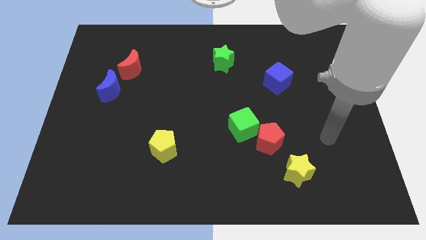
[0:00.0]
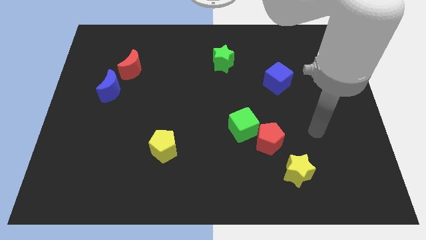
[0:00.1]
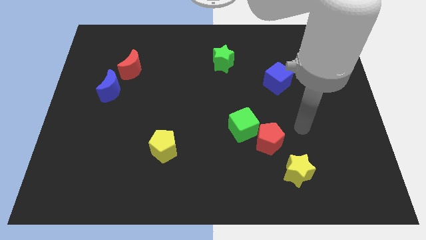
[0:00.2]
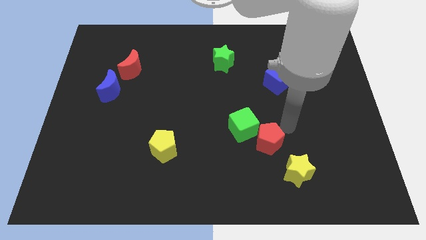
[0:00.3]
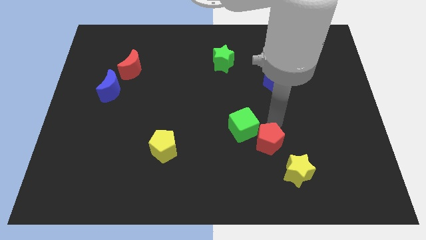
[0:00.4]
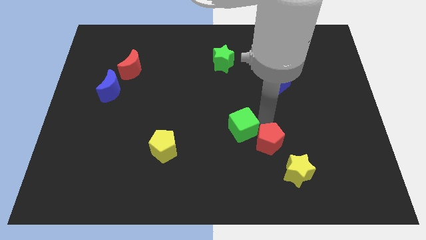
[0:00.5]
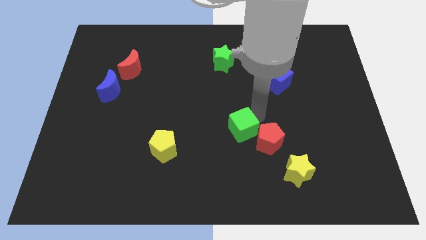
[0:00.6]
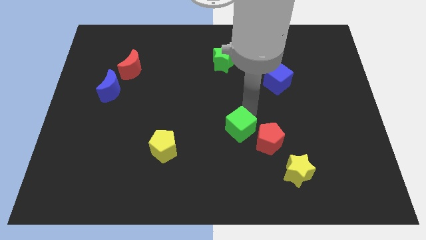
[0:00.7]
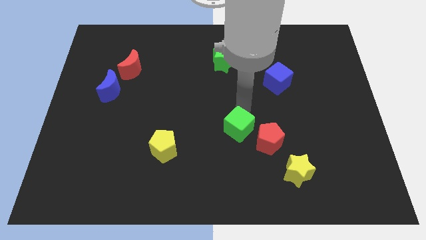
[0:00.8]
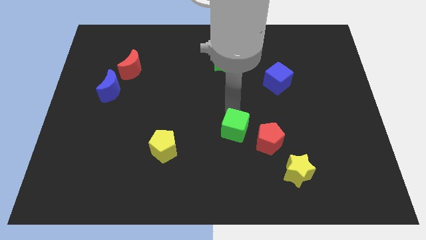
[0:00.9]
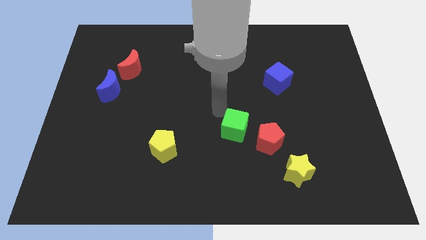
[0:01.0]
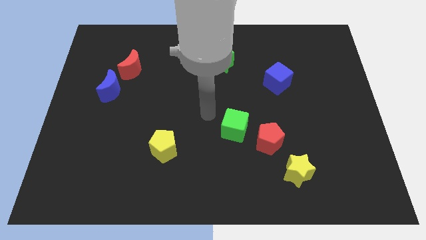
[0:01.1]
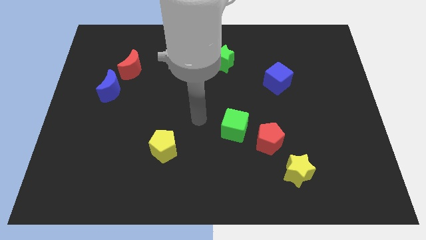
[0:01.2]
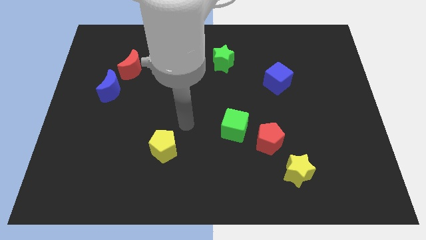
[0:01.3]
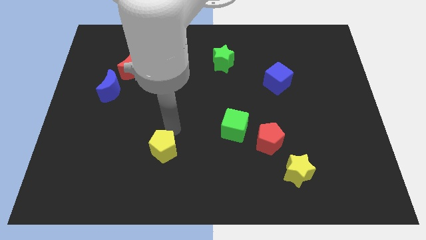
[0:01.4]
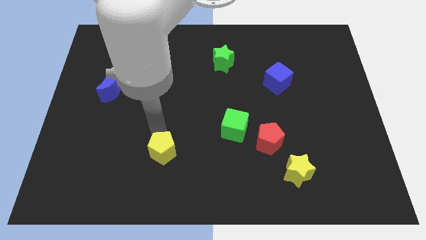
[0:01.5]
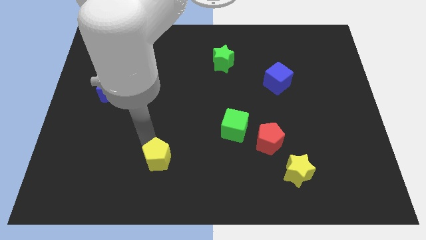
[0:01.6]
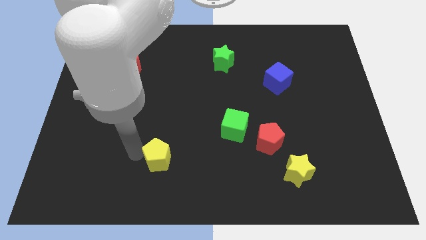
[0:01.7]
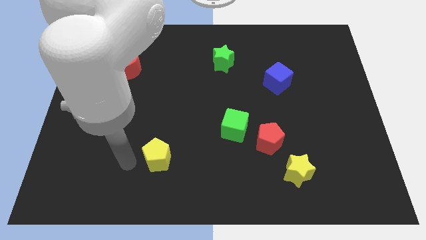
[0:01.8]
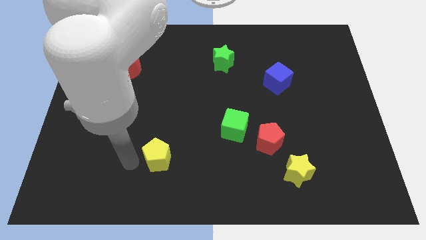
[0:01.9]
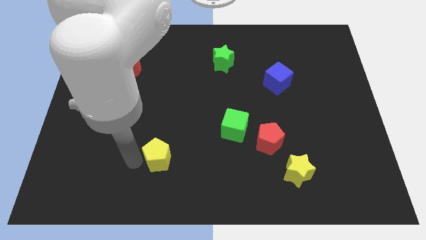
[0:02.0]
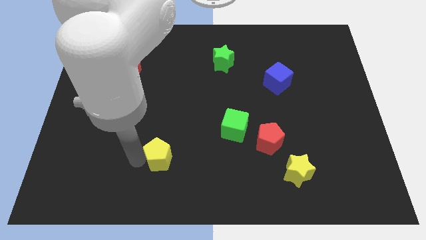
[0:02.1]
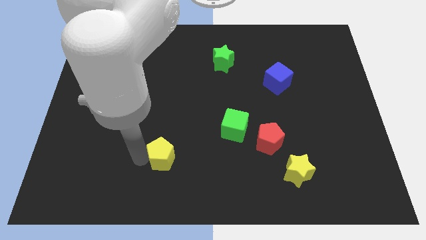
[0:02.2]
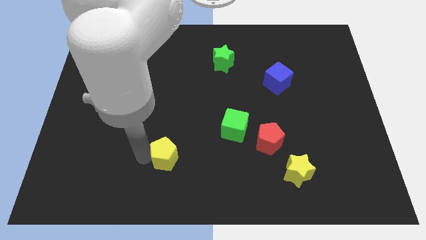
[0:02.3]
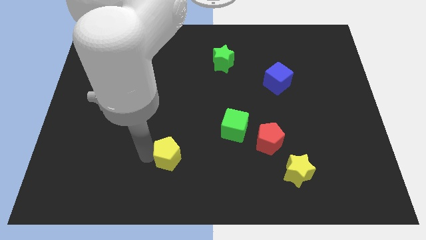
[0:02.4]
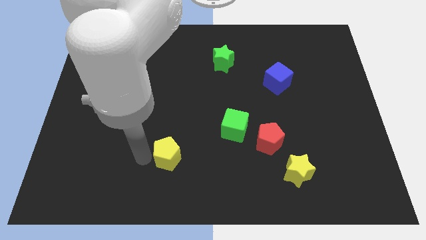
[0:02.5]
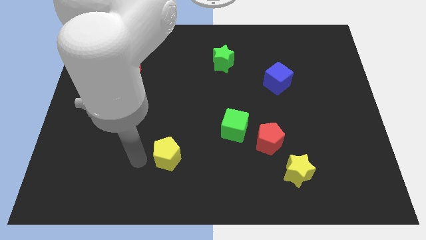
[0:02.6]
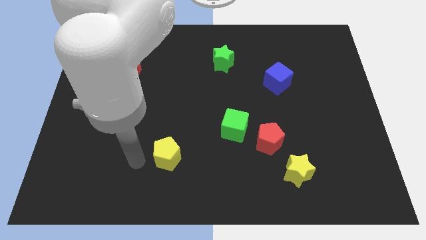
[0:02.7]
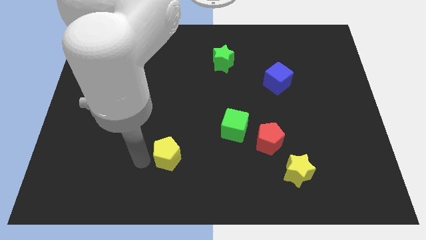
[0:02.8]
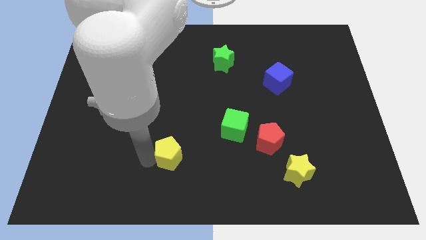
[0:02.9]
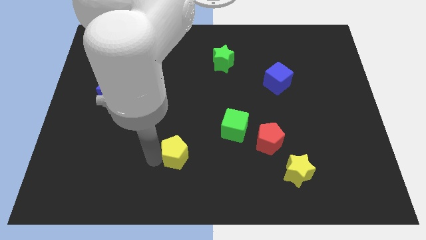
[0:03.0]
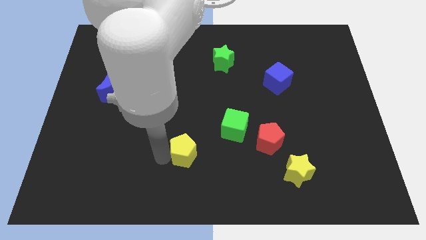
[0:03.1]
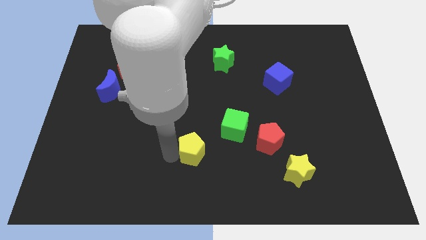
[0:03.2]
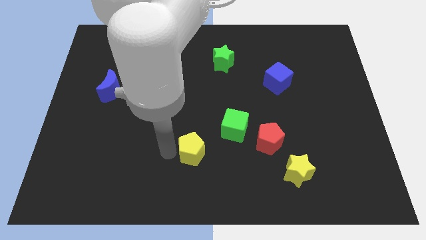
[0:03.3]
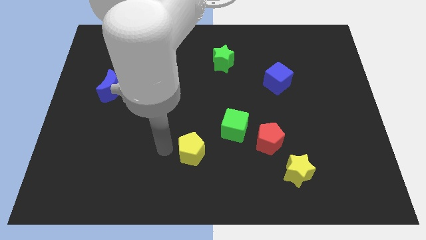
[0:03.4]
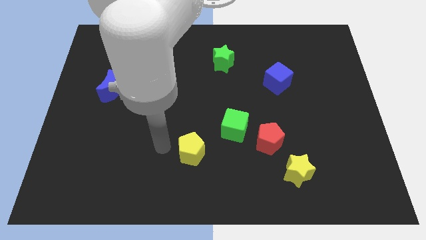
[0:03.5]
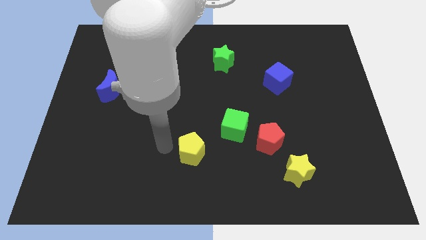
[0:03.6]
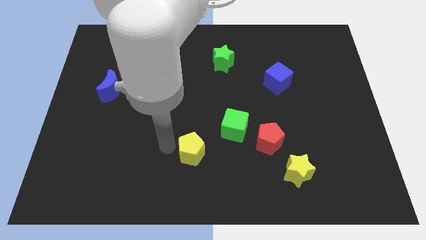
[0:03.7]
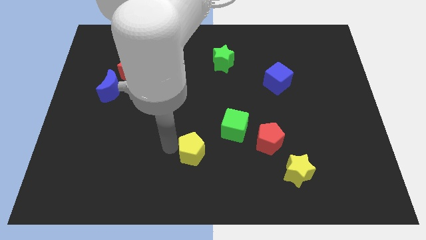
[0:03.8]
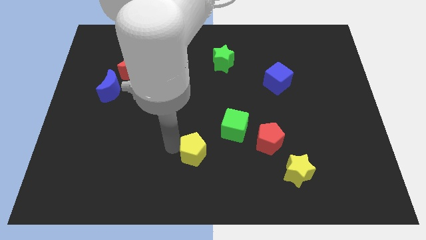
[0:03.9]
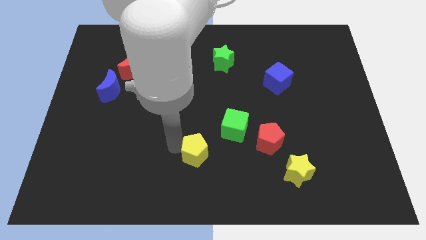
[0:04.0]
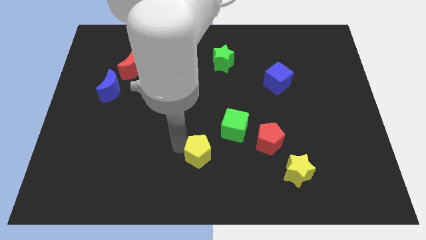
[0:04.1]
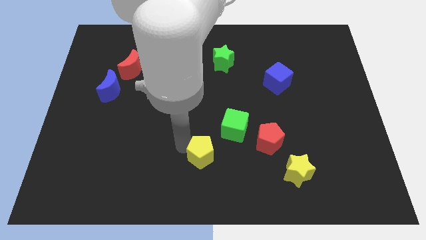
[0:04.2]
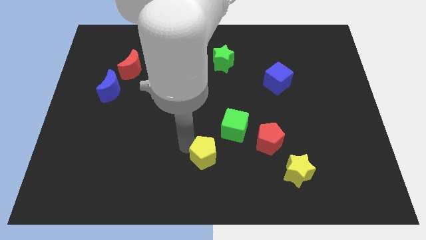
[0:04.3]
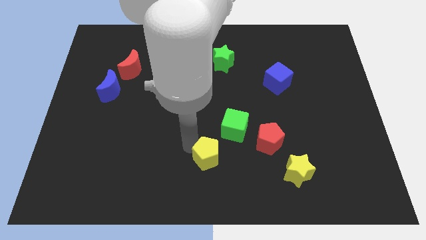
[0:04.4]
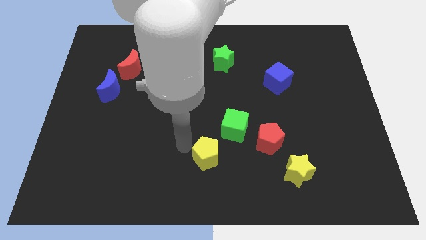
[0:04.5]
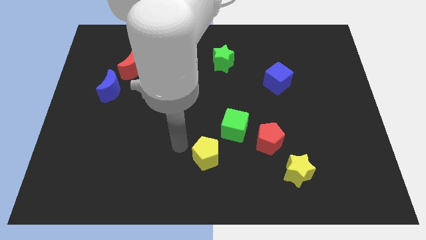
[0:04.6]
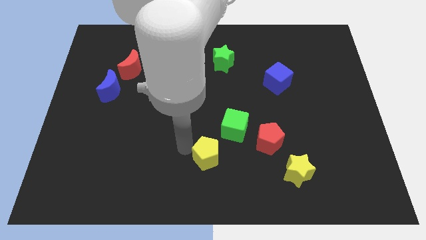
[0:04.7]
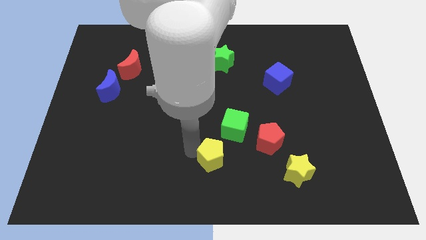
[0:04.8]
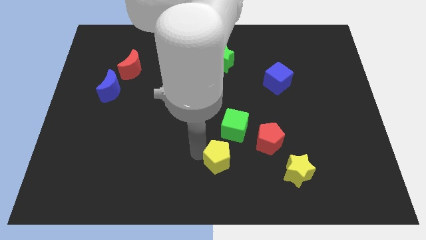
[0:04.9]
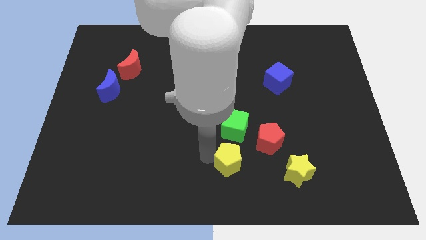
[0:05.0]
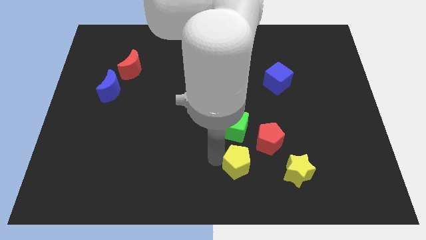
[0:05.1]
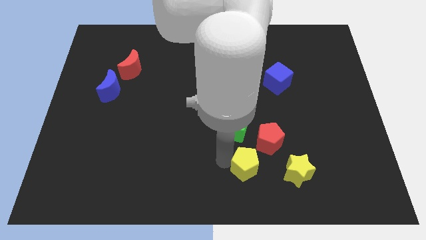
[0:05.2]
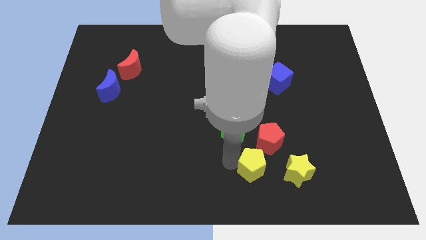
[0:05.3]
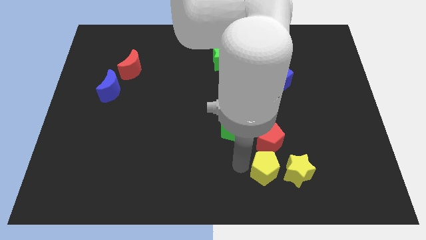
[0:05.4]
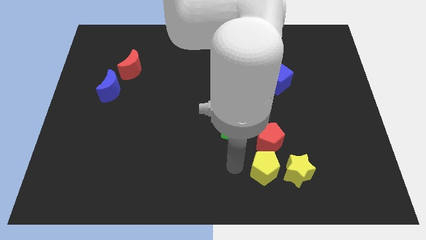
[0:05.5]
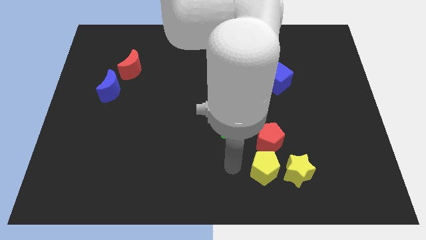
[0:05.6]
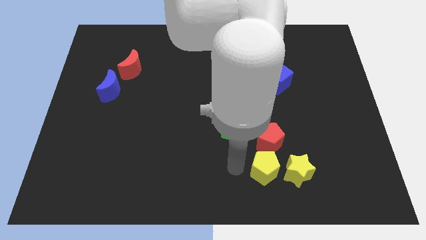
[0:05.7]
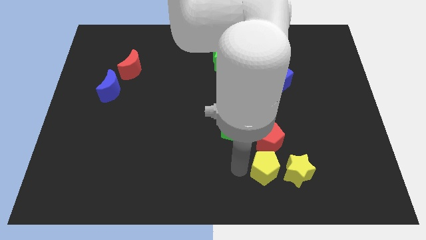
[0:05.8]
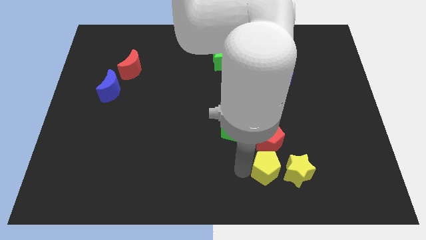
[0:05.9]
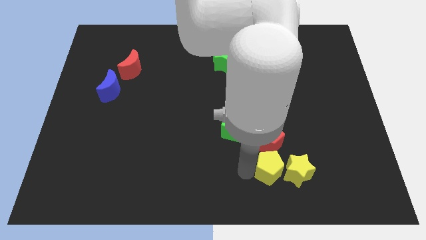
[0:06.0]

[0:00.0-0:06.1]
move the yellow pentagon next to the yellow star

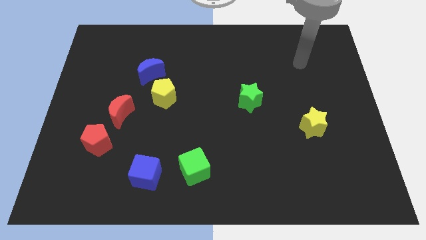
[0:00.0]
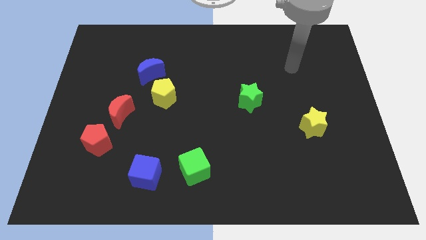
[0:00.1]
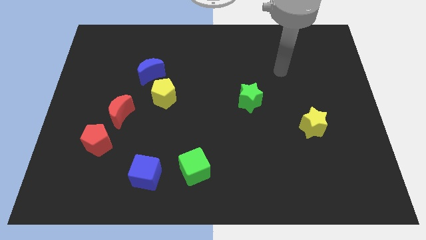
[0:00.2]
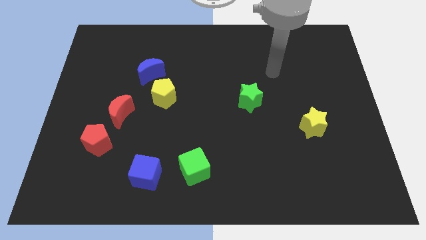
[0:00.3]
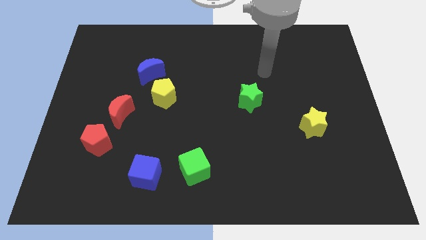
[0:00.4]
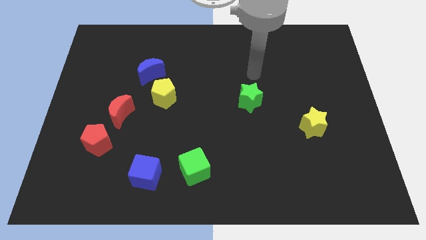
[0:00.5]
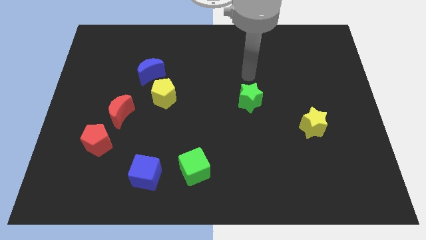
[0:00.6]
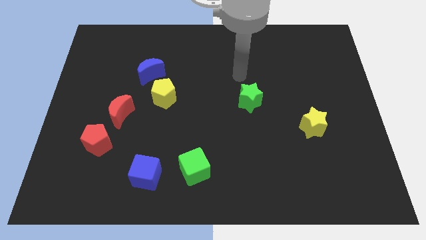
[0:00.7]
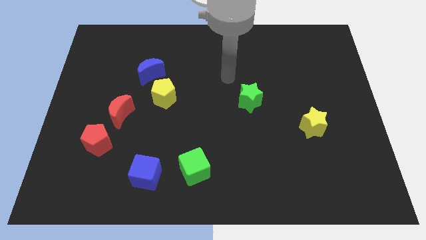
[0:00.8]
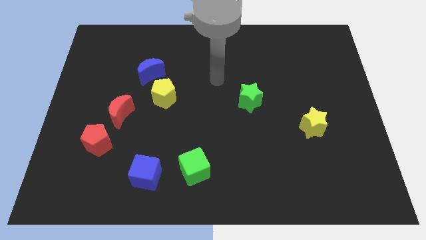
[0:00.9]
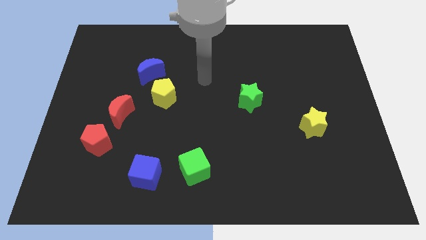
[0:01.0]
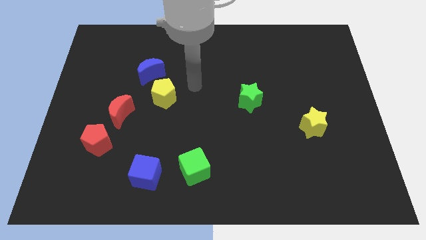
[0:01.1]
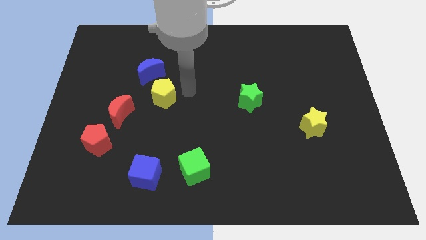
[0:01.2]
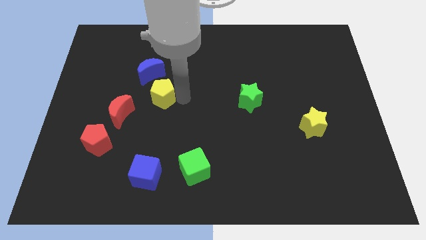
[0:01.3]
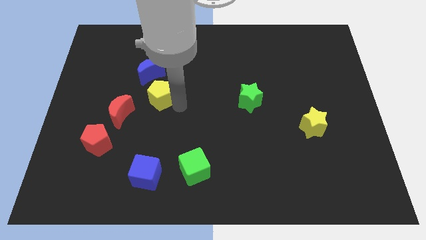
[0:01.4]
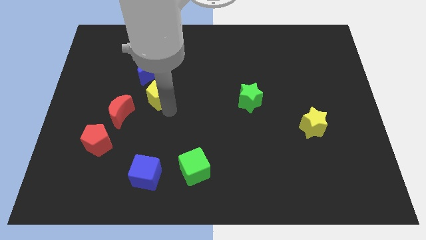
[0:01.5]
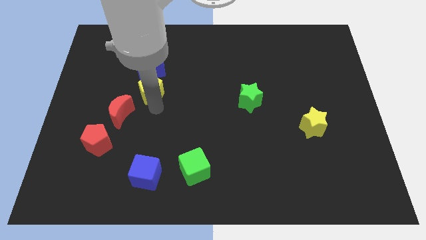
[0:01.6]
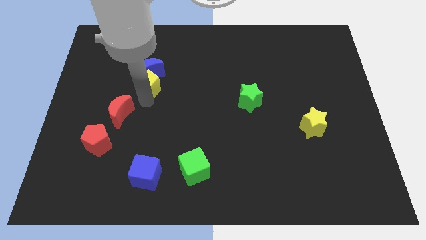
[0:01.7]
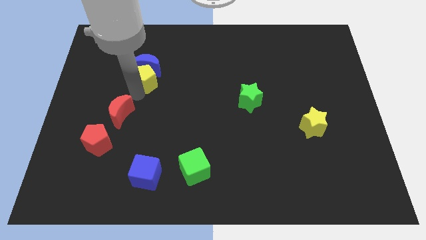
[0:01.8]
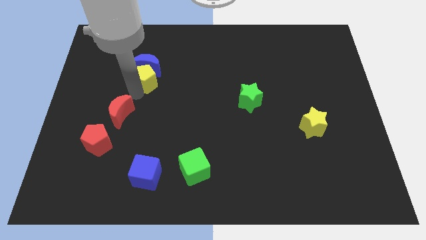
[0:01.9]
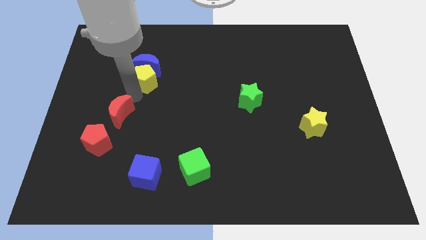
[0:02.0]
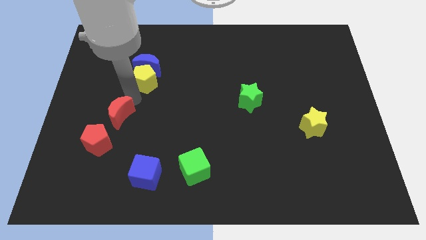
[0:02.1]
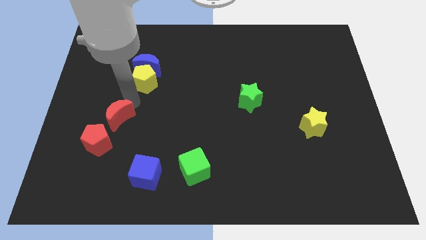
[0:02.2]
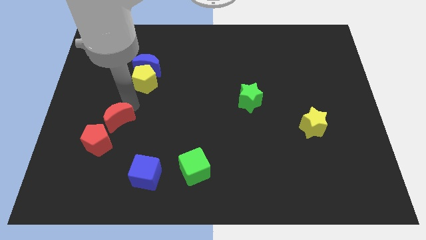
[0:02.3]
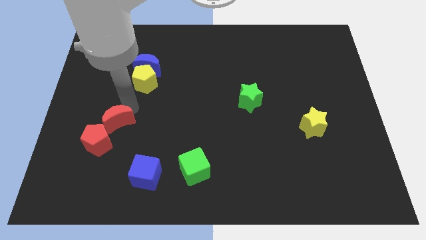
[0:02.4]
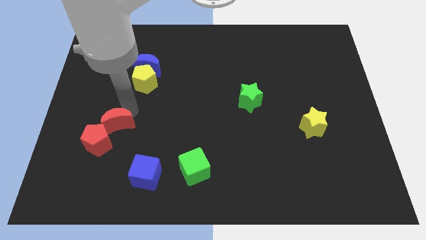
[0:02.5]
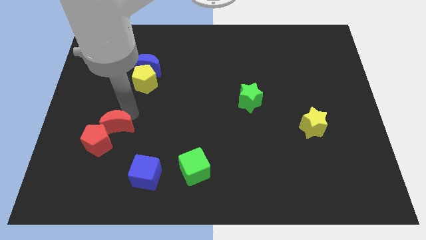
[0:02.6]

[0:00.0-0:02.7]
move the red moon next to the red pentagon
